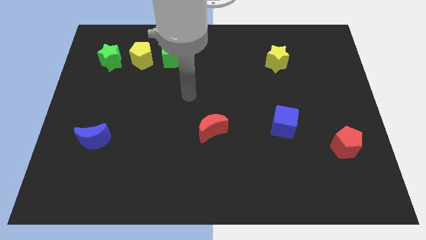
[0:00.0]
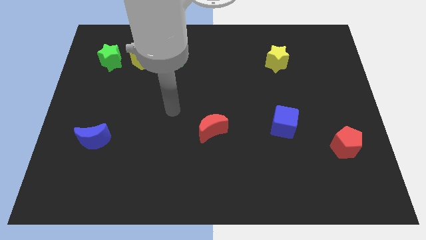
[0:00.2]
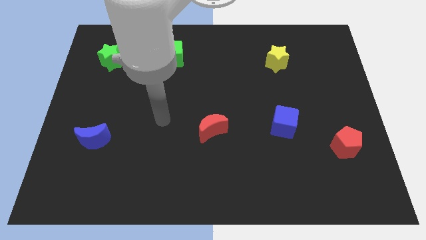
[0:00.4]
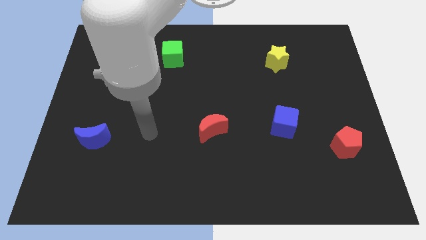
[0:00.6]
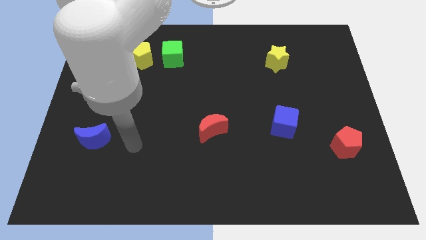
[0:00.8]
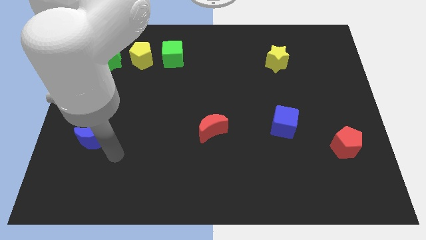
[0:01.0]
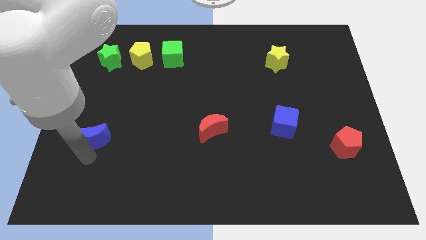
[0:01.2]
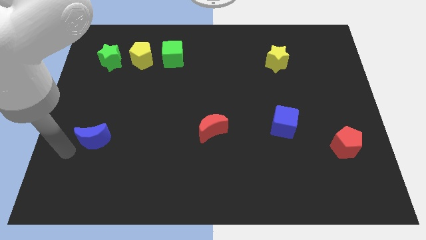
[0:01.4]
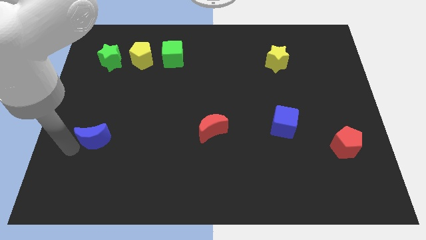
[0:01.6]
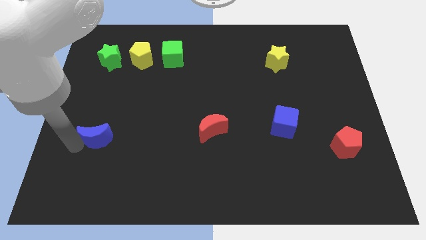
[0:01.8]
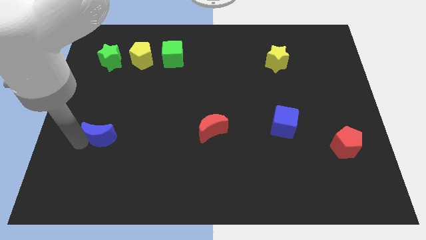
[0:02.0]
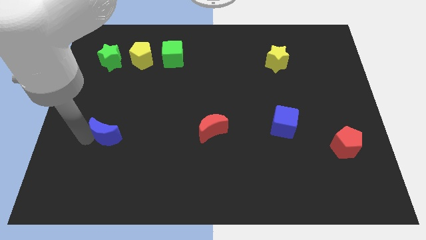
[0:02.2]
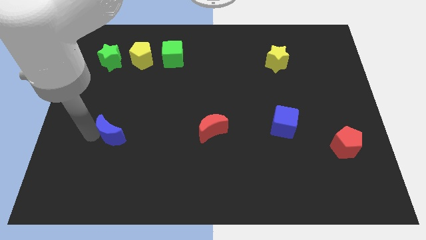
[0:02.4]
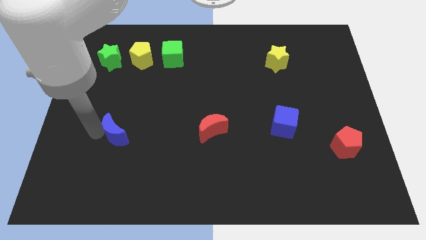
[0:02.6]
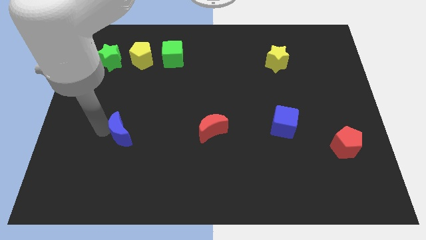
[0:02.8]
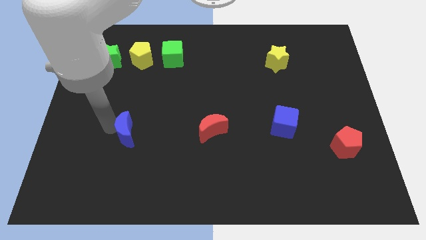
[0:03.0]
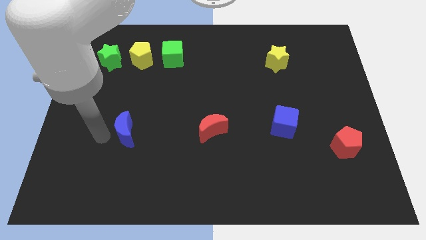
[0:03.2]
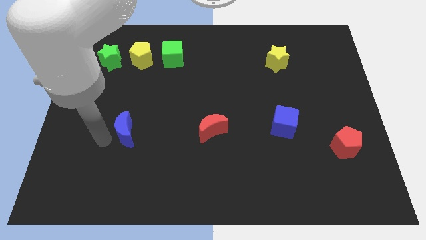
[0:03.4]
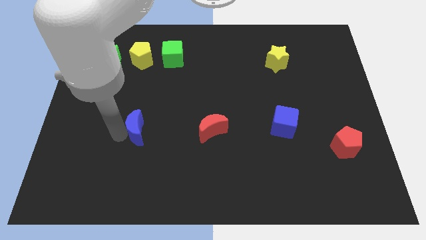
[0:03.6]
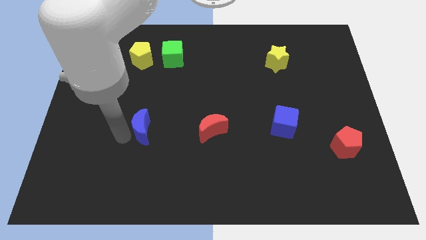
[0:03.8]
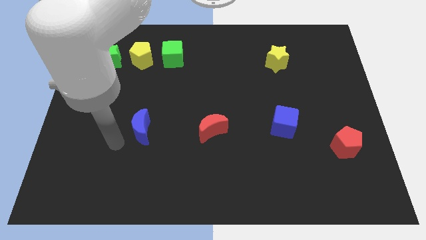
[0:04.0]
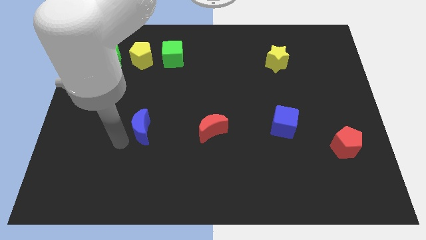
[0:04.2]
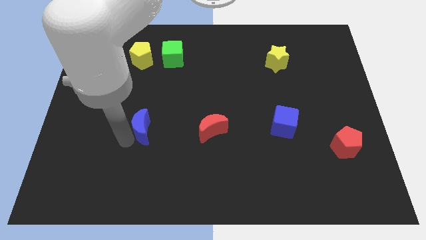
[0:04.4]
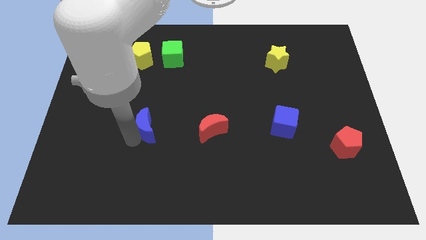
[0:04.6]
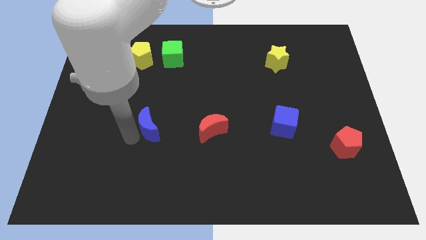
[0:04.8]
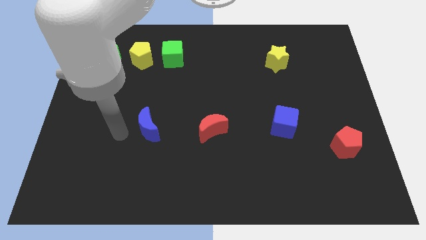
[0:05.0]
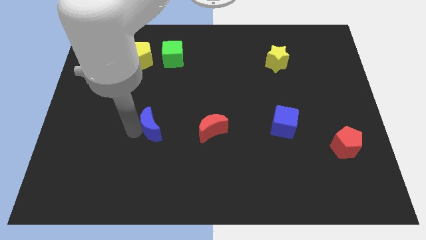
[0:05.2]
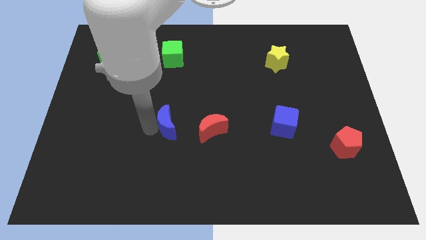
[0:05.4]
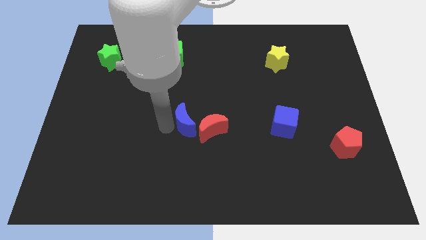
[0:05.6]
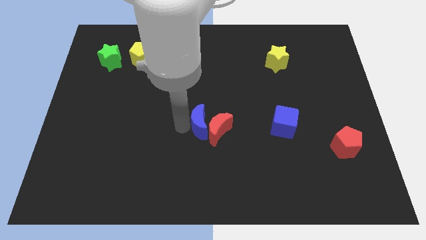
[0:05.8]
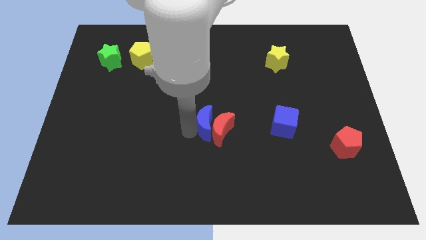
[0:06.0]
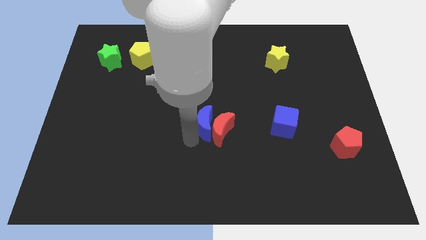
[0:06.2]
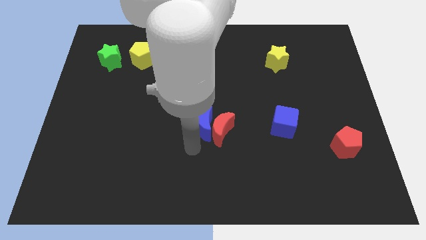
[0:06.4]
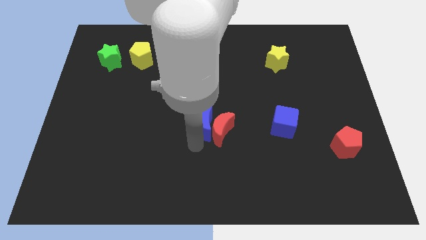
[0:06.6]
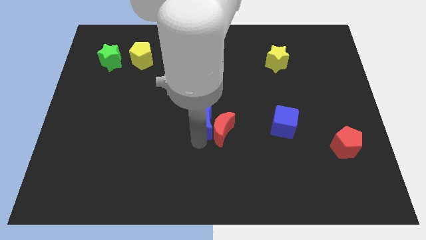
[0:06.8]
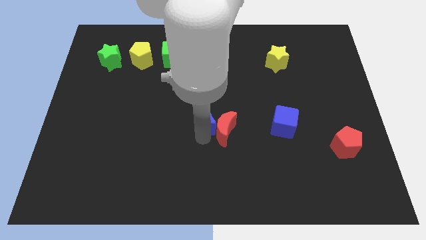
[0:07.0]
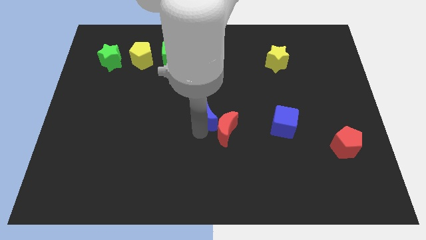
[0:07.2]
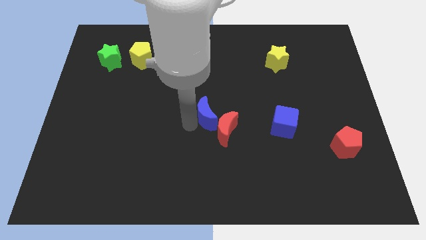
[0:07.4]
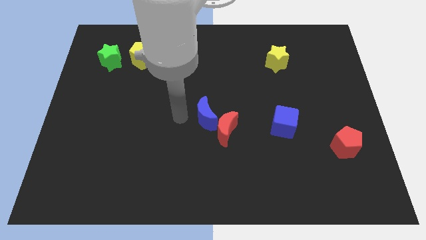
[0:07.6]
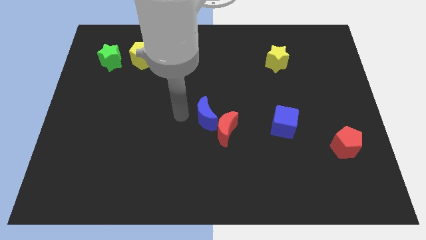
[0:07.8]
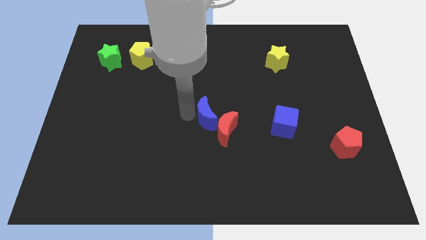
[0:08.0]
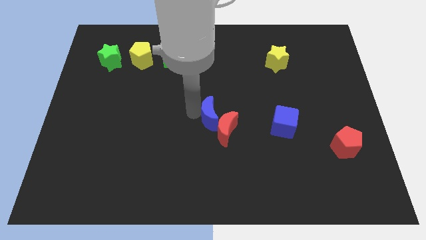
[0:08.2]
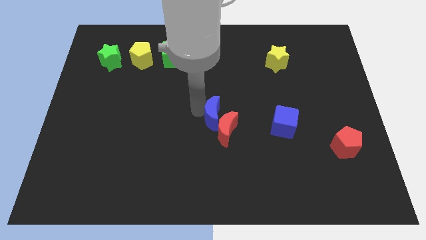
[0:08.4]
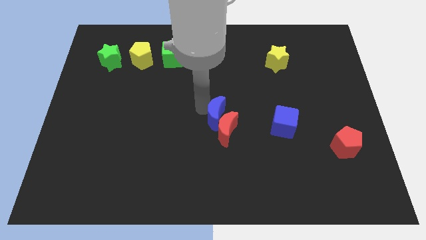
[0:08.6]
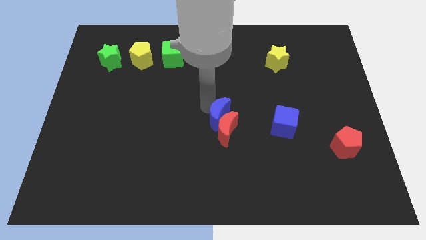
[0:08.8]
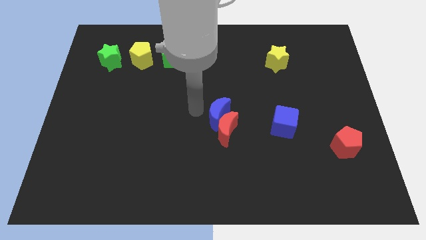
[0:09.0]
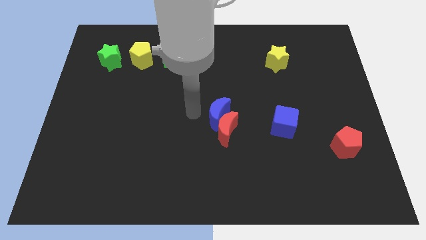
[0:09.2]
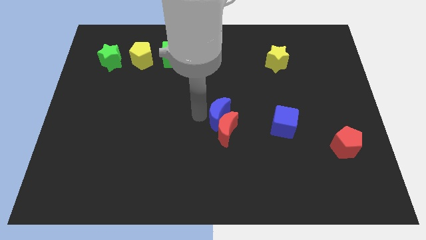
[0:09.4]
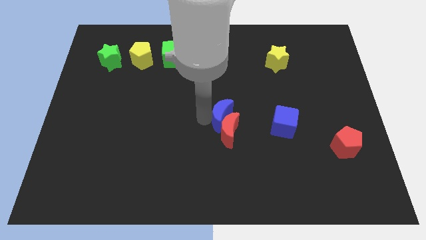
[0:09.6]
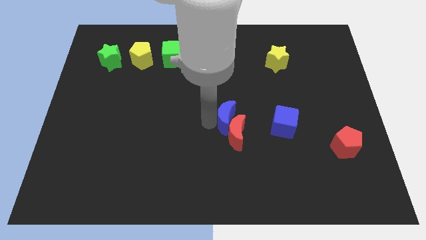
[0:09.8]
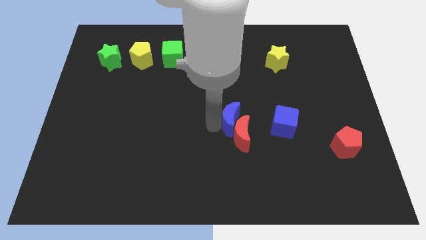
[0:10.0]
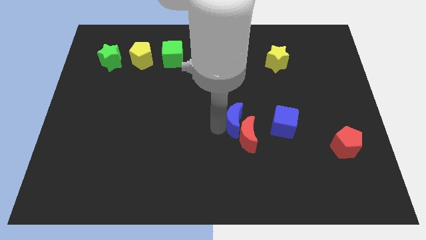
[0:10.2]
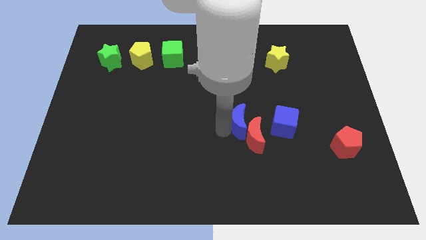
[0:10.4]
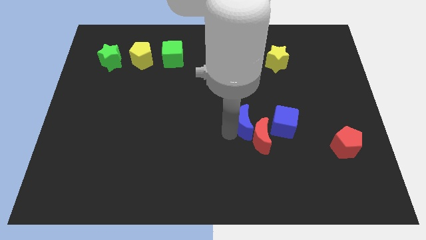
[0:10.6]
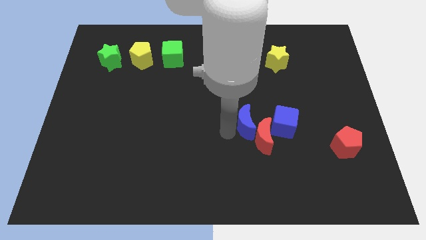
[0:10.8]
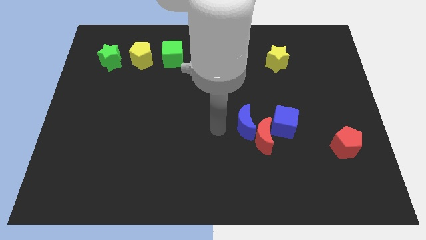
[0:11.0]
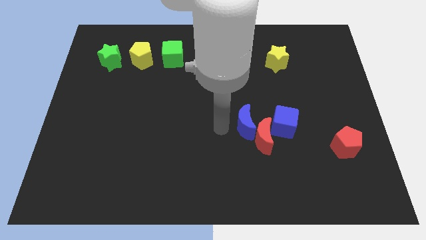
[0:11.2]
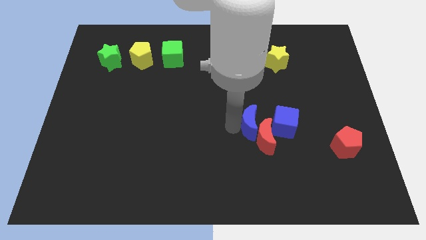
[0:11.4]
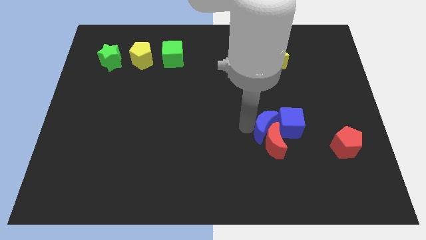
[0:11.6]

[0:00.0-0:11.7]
push the blue moon towards the blue cube

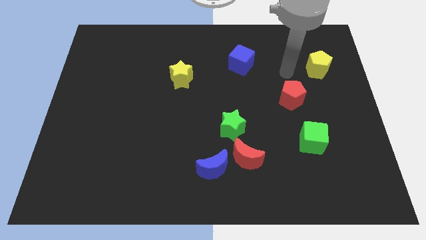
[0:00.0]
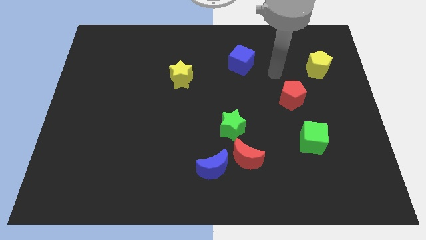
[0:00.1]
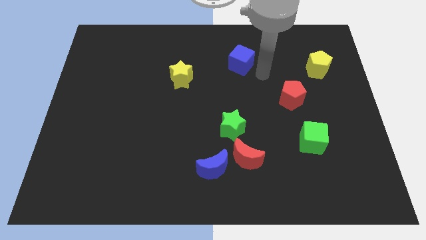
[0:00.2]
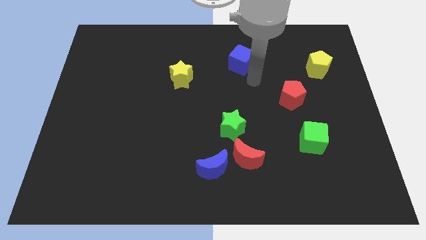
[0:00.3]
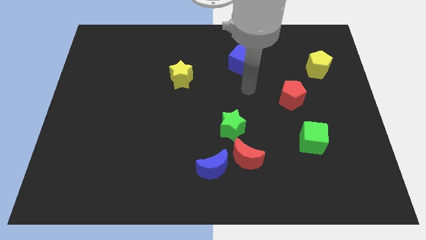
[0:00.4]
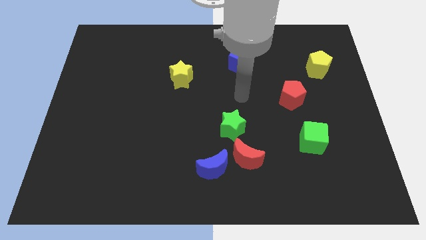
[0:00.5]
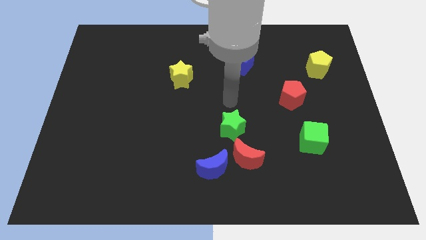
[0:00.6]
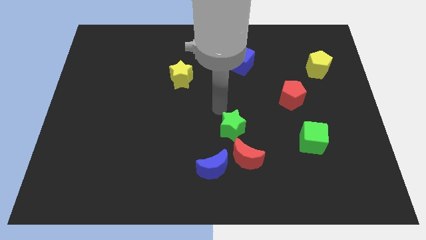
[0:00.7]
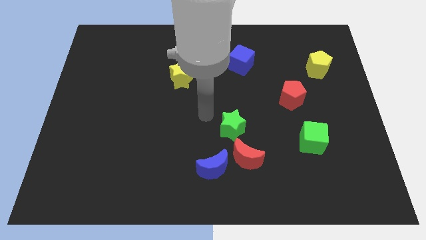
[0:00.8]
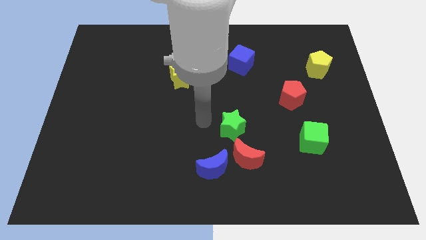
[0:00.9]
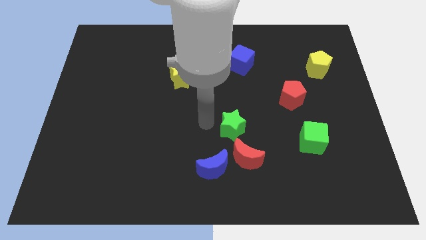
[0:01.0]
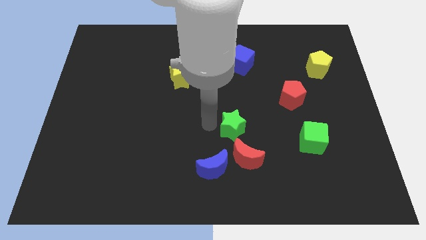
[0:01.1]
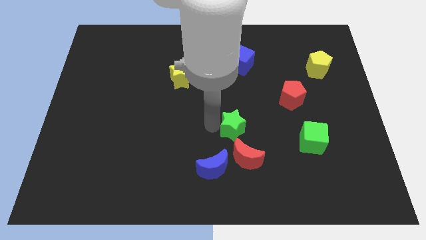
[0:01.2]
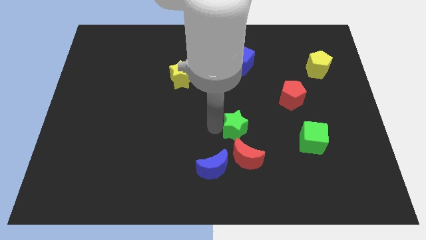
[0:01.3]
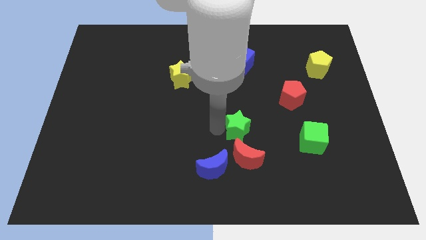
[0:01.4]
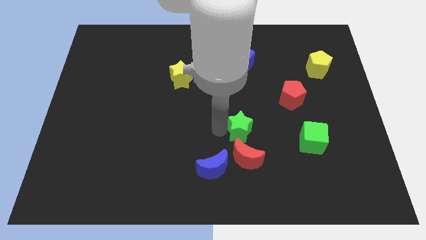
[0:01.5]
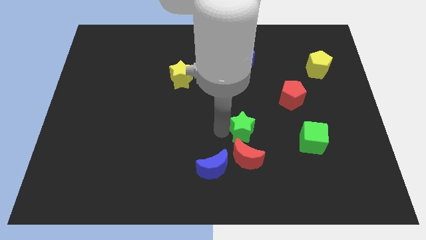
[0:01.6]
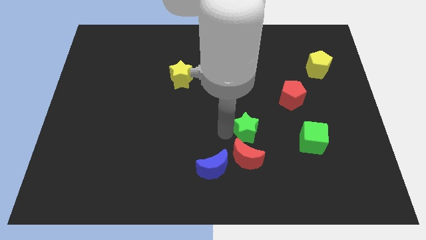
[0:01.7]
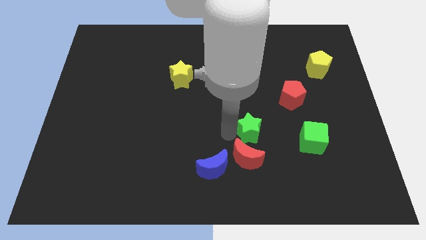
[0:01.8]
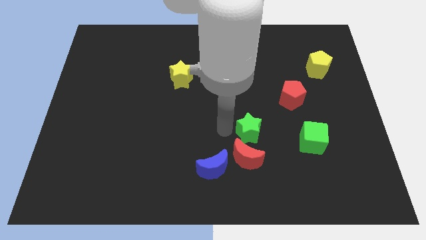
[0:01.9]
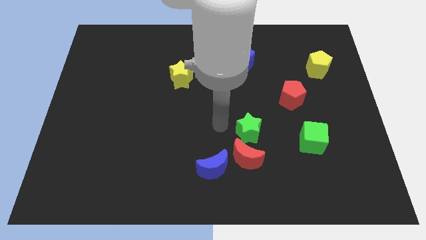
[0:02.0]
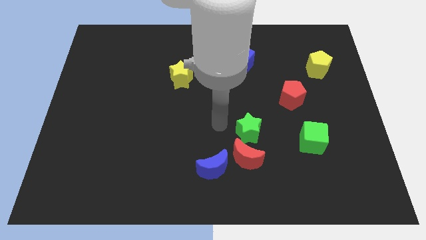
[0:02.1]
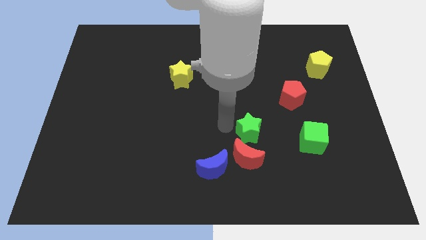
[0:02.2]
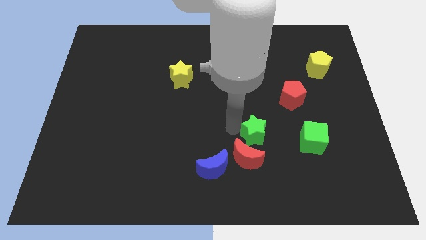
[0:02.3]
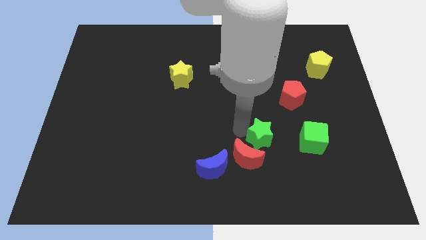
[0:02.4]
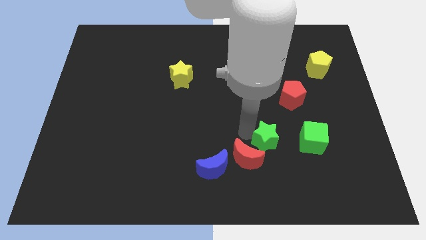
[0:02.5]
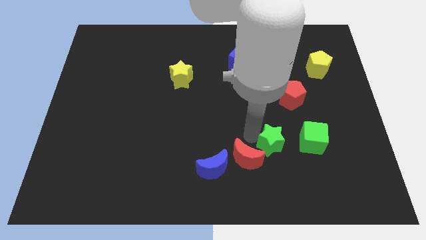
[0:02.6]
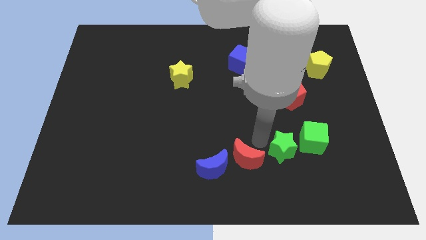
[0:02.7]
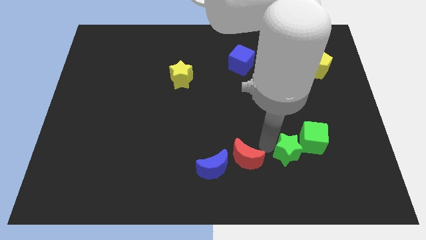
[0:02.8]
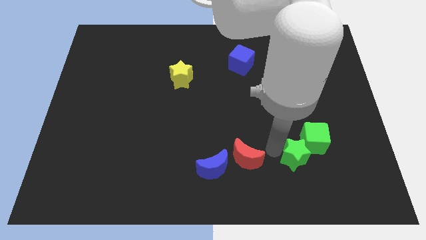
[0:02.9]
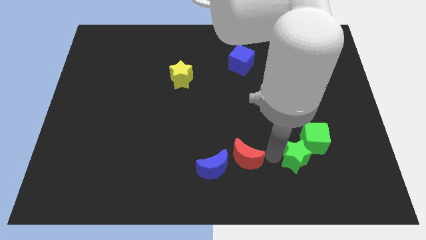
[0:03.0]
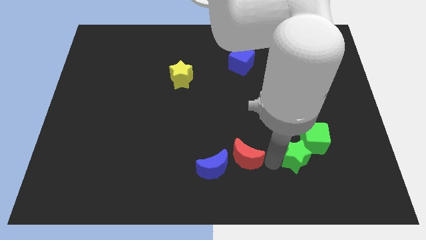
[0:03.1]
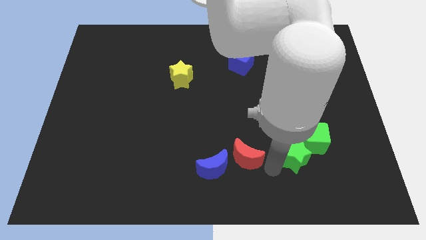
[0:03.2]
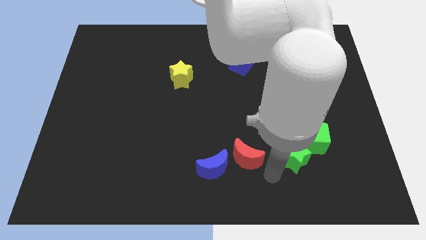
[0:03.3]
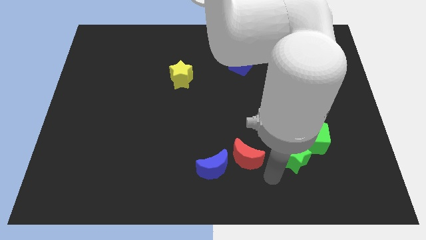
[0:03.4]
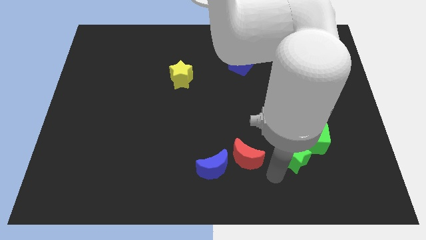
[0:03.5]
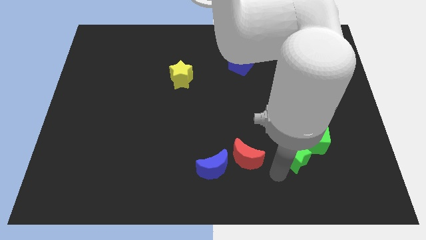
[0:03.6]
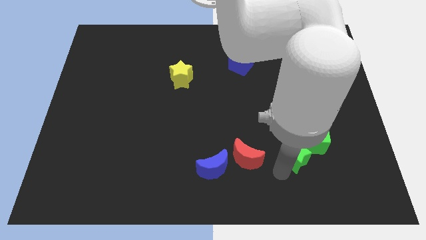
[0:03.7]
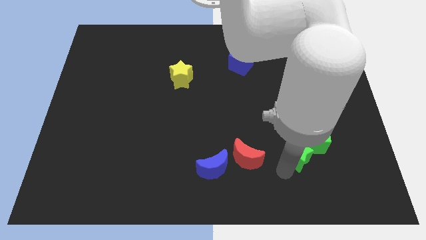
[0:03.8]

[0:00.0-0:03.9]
push the green star towards the green cube
